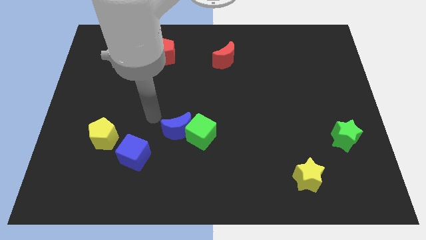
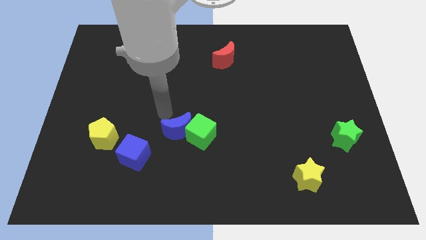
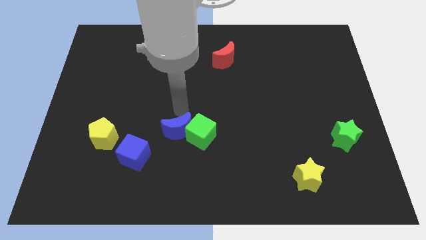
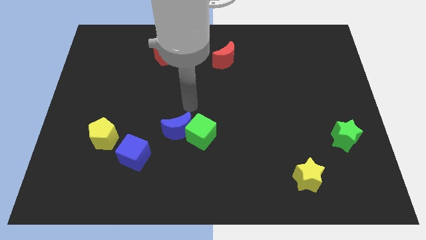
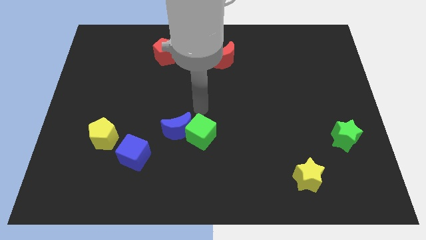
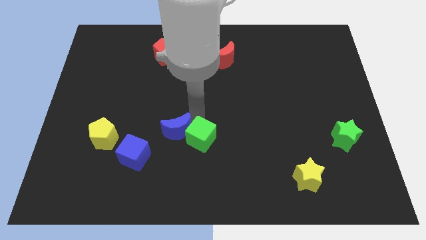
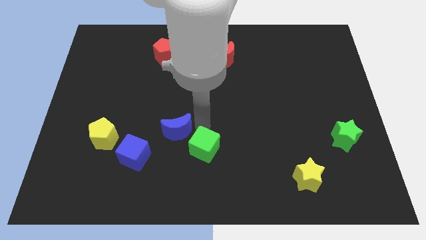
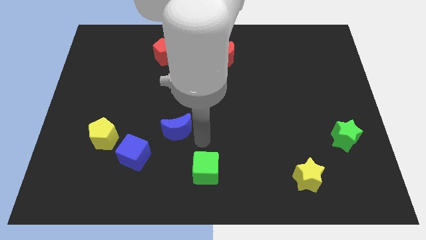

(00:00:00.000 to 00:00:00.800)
separate the blue moon from the green cube

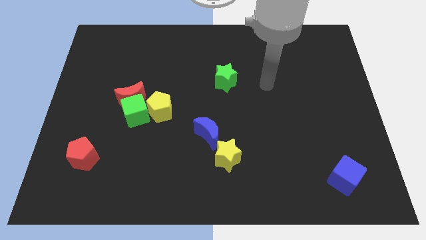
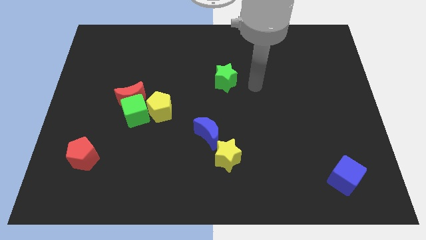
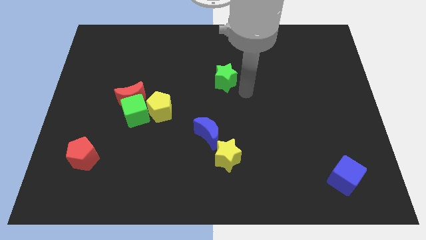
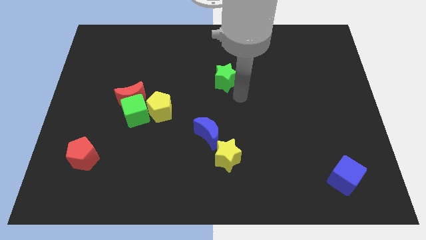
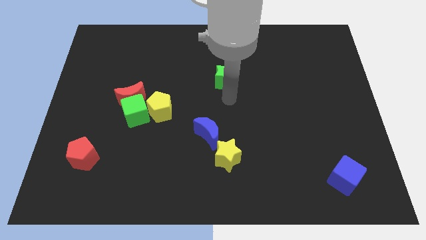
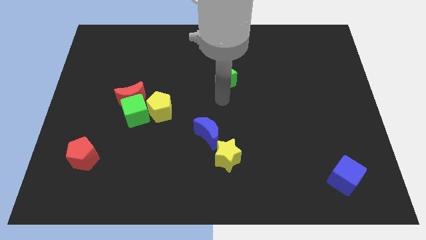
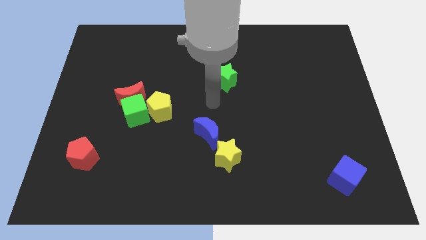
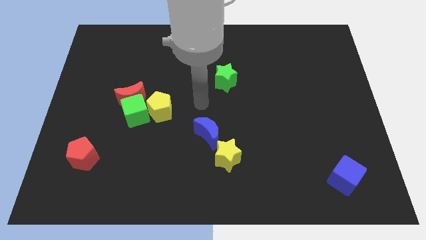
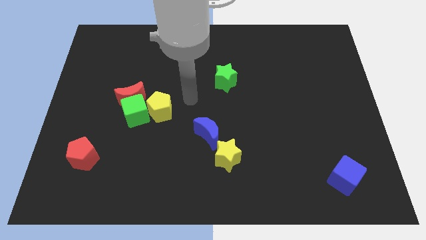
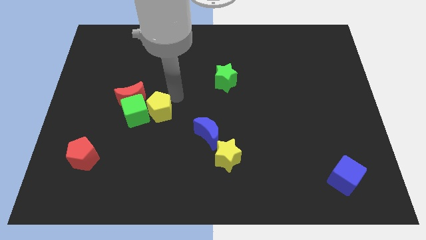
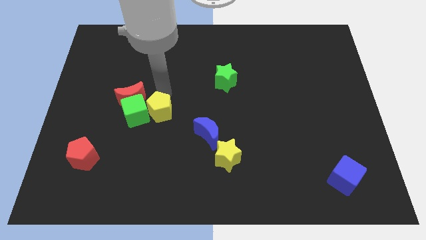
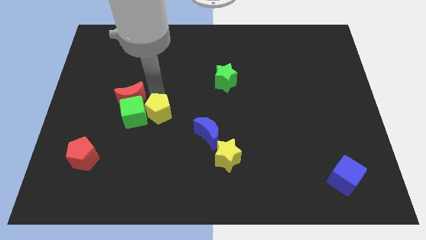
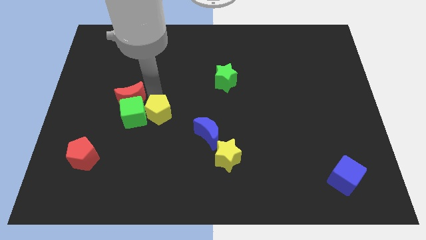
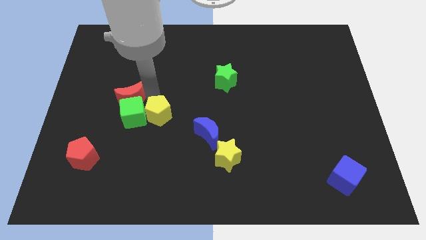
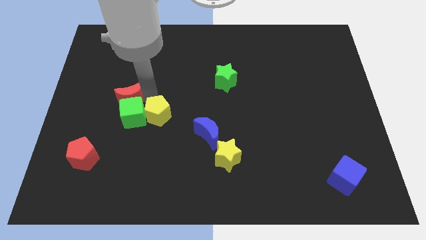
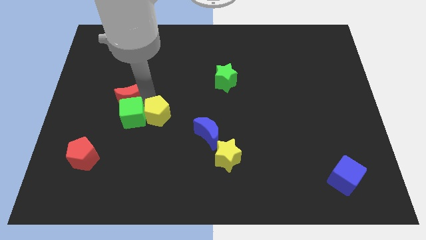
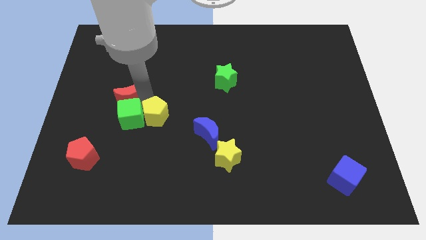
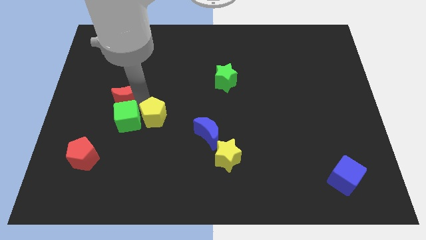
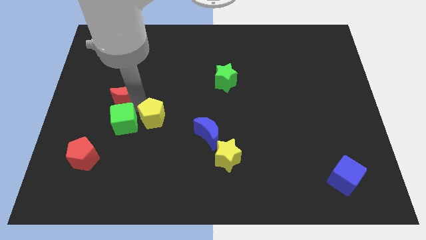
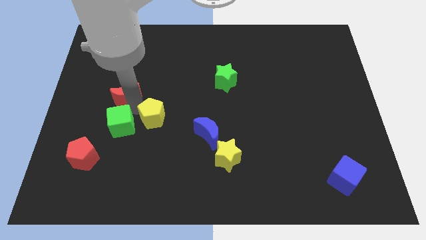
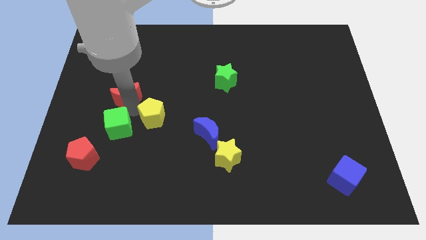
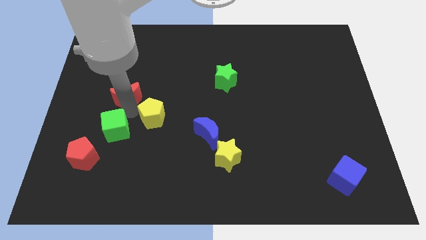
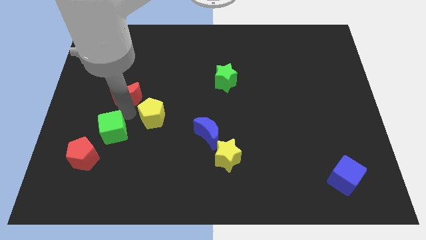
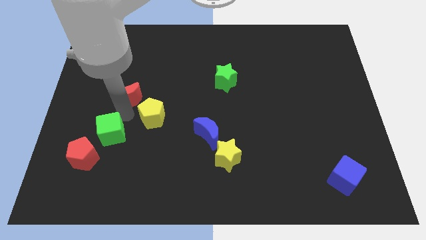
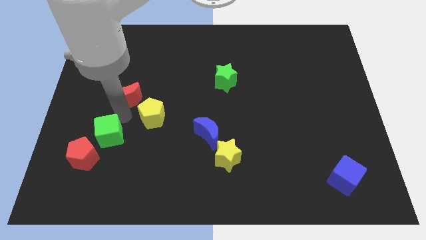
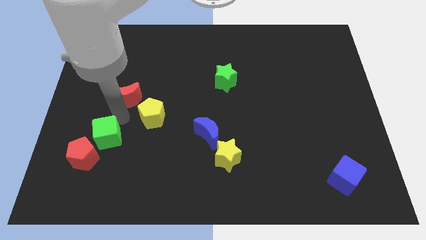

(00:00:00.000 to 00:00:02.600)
move the green cube away from the red moon and yellow pentagon

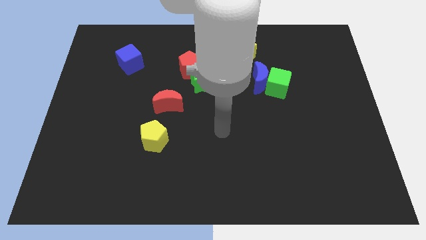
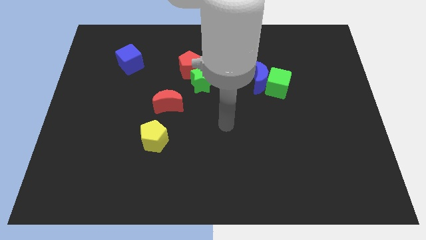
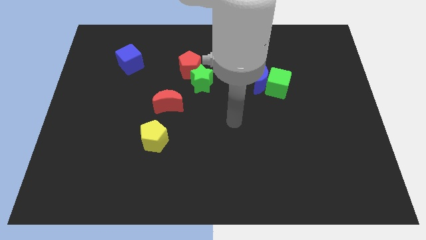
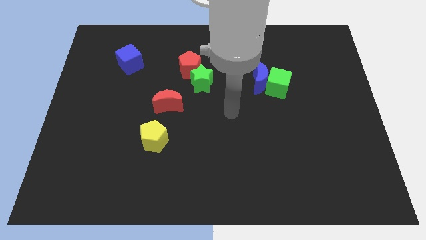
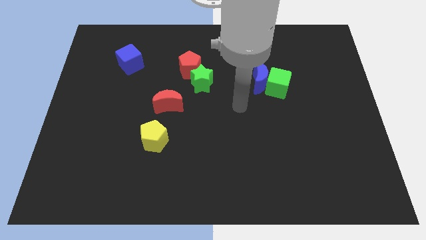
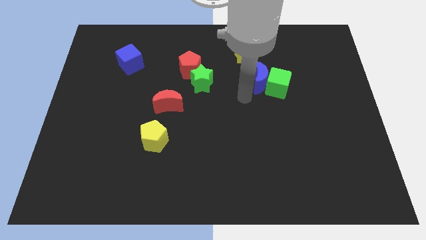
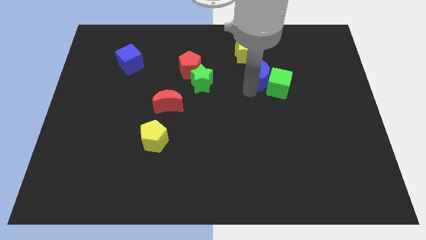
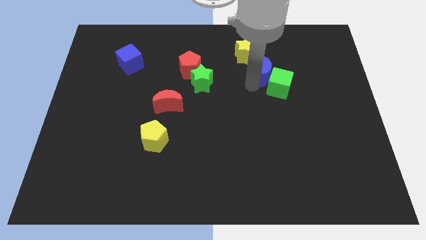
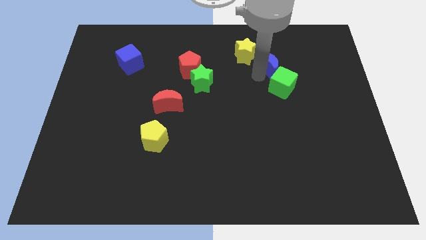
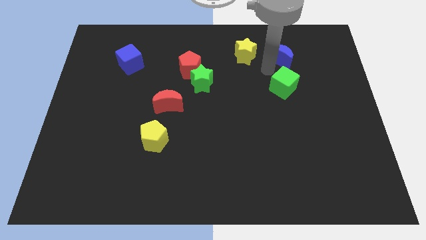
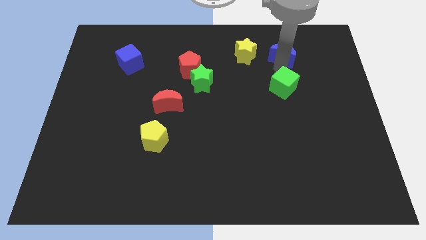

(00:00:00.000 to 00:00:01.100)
pull the green cube apart from the blue moon

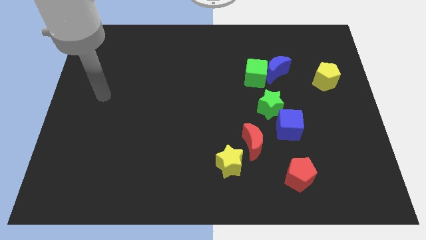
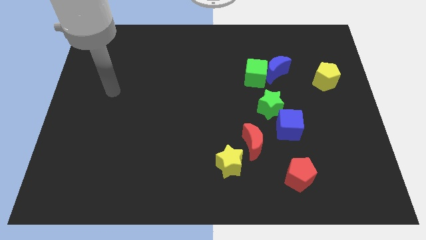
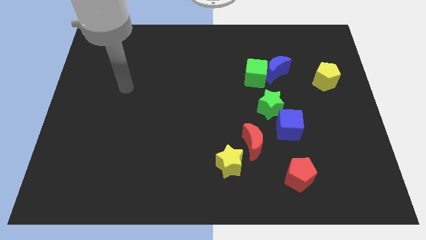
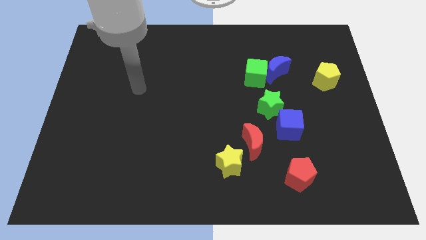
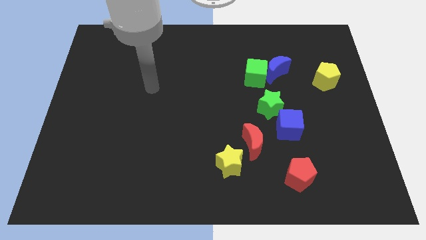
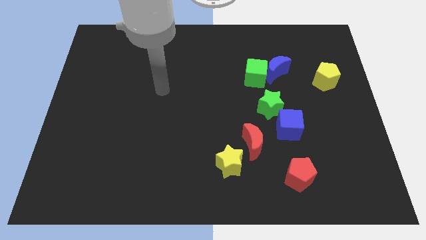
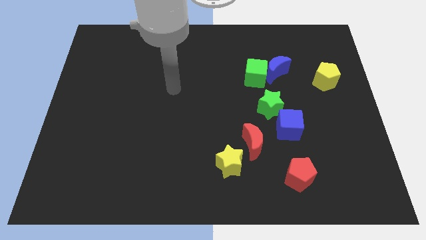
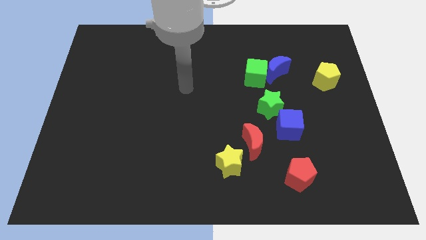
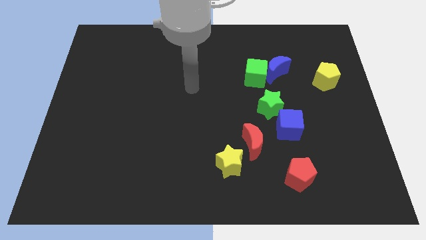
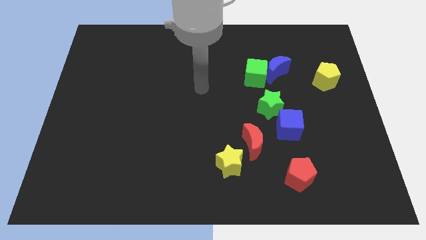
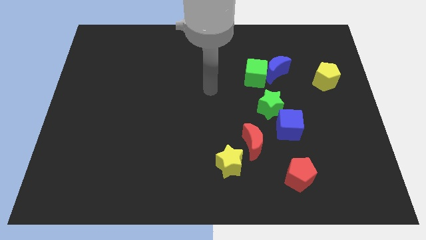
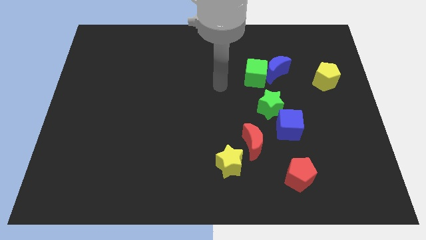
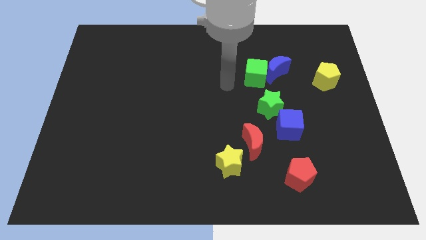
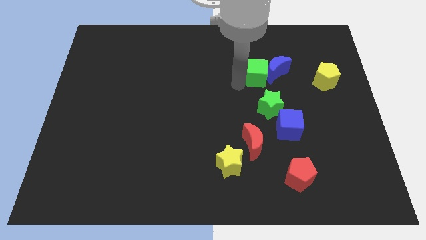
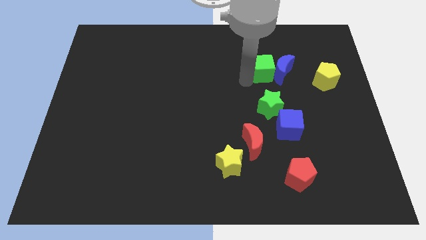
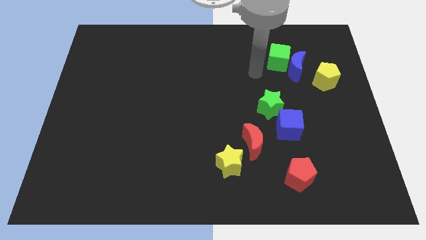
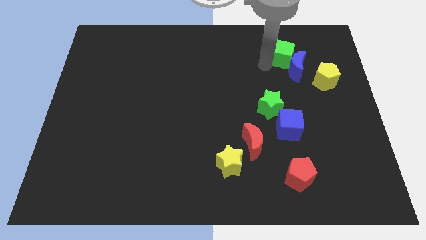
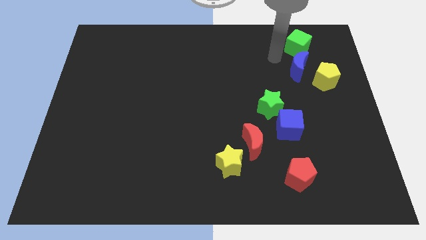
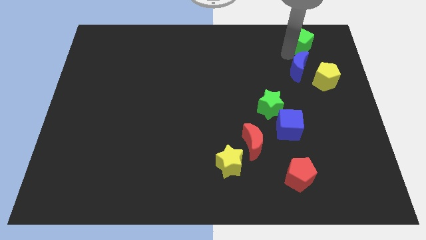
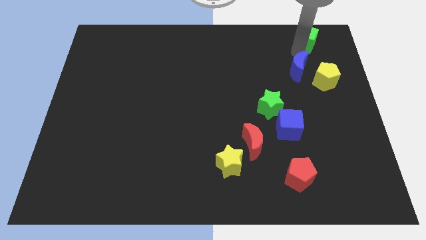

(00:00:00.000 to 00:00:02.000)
move the blue moon away from the green cube

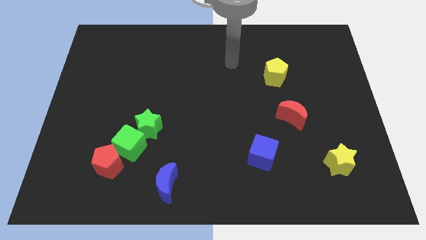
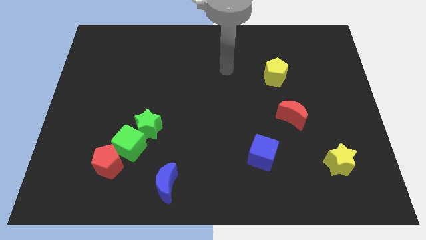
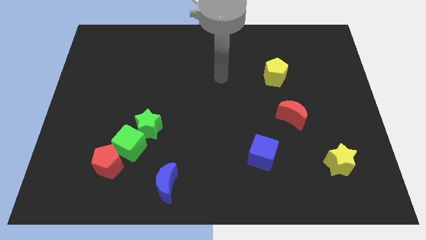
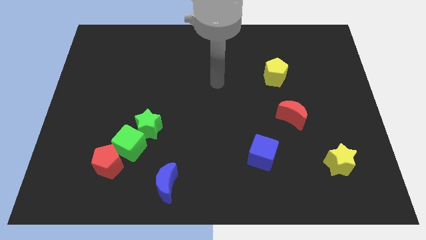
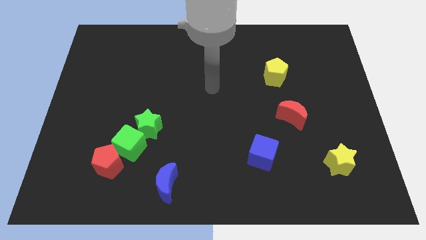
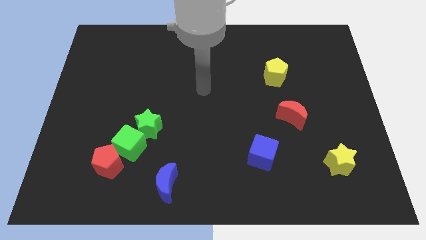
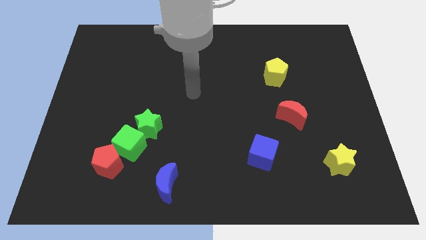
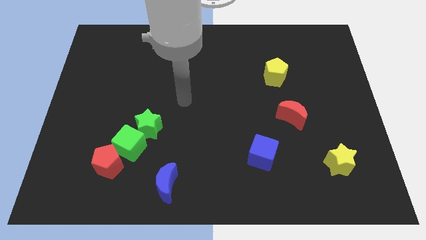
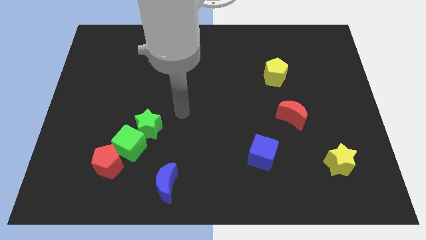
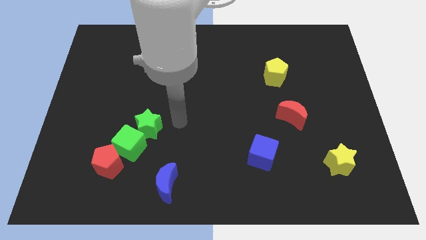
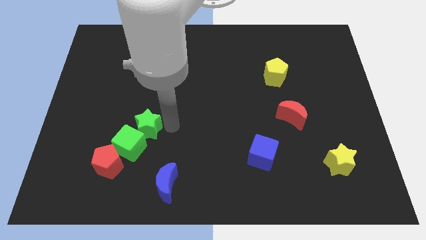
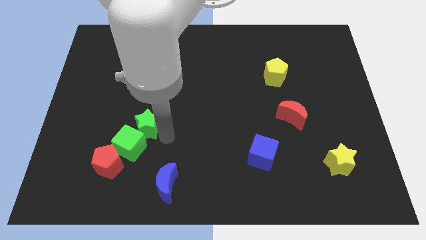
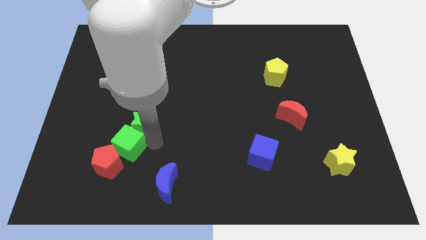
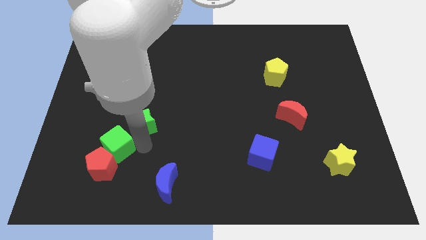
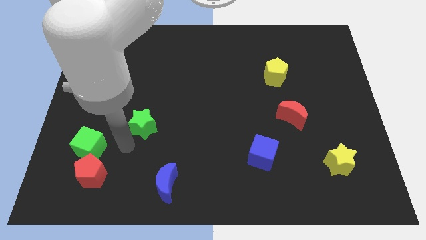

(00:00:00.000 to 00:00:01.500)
pull the green star apart from the green cube

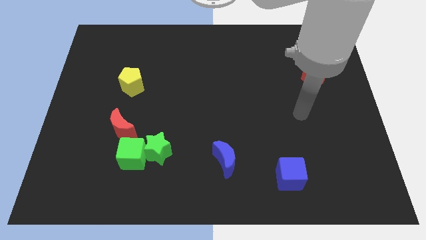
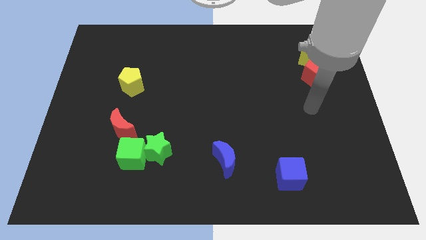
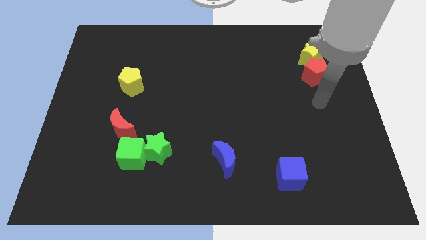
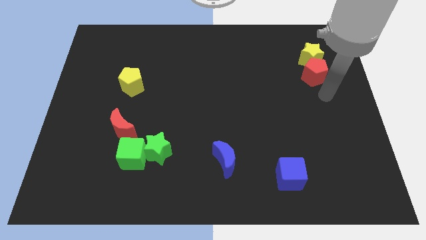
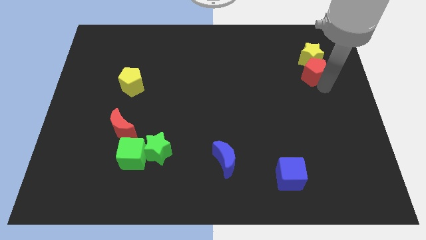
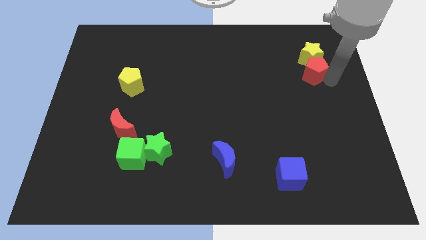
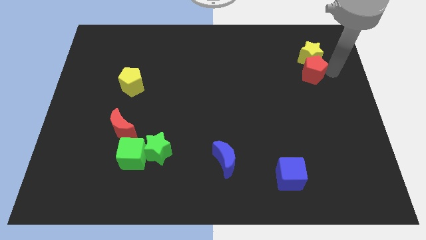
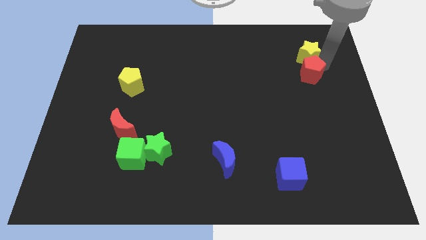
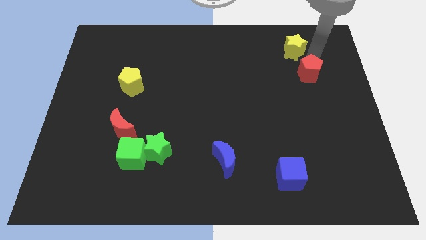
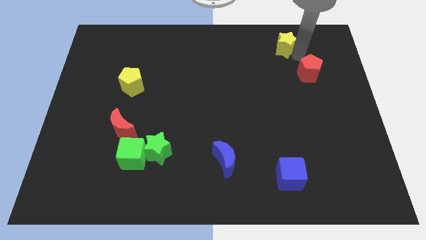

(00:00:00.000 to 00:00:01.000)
separate the red pentagon from the yellow star

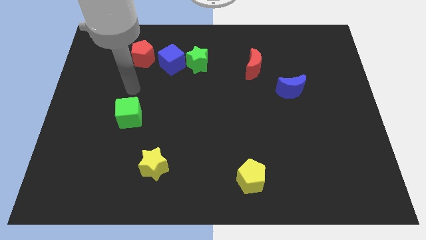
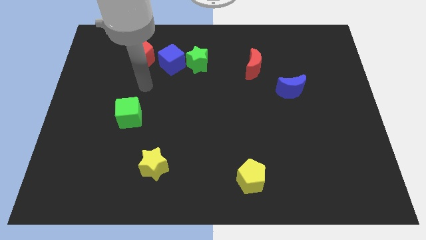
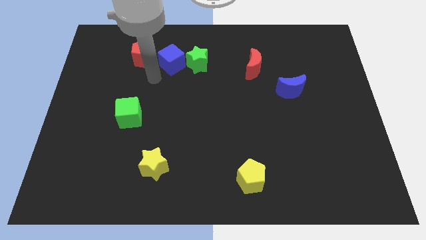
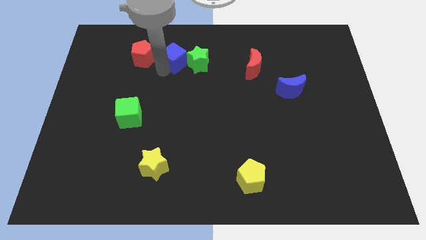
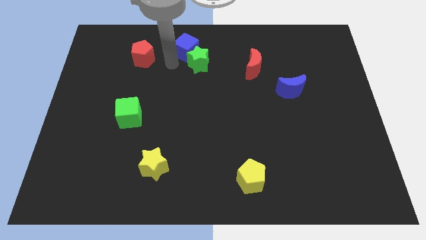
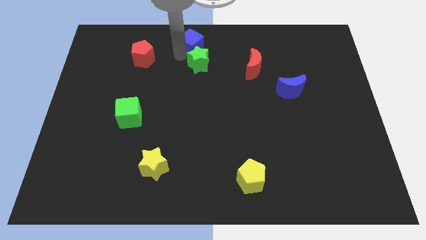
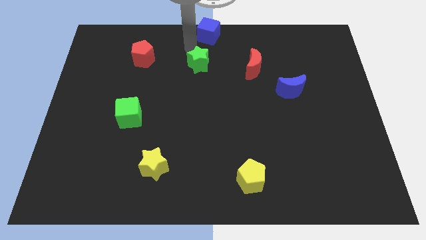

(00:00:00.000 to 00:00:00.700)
move the green star away from the blue cube
